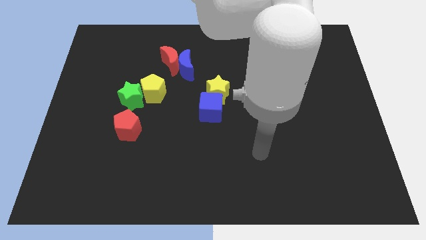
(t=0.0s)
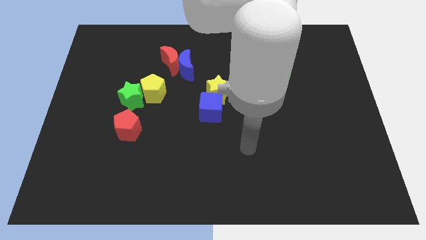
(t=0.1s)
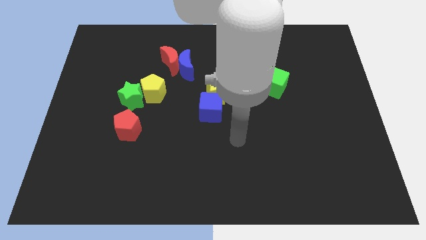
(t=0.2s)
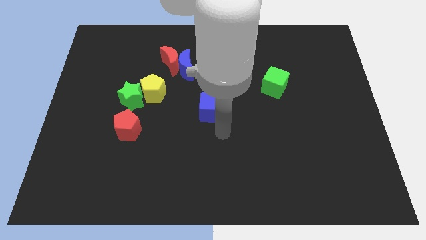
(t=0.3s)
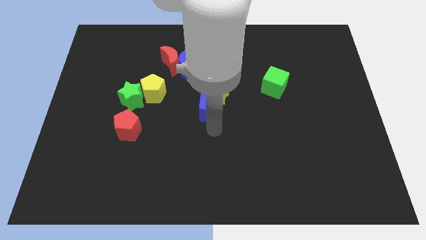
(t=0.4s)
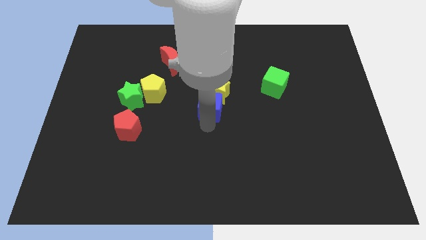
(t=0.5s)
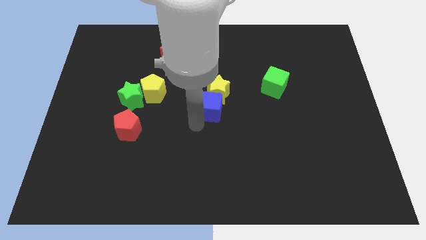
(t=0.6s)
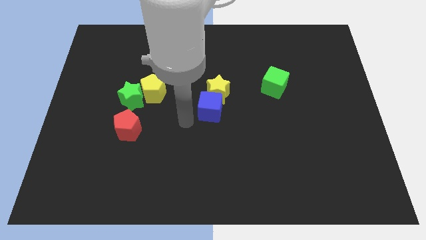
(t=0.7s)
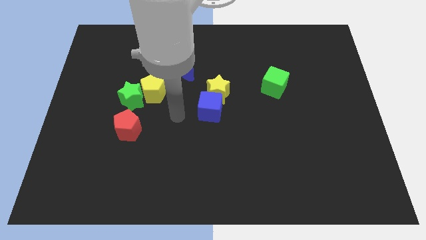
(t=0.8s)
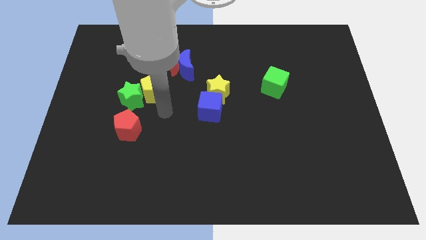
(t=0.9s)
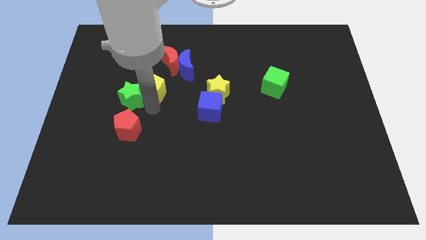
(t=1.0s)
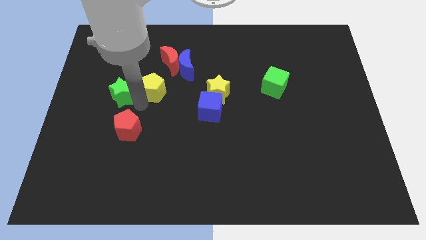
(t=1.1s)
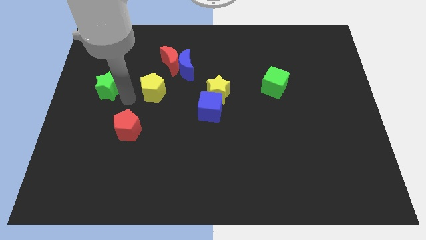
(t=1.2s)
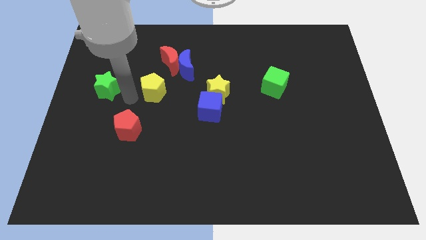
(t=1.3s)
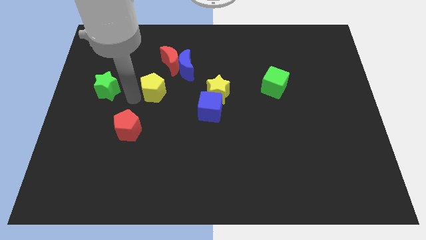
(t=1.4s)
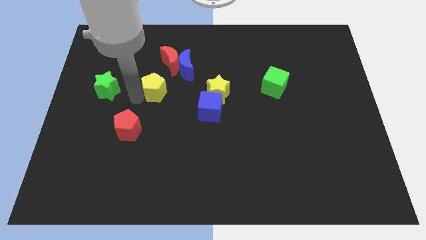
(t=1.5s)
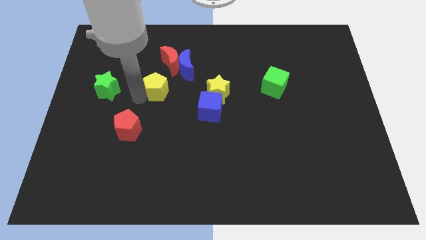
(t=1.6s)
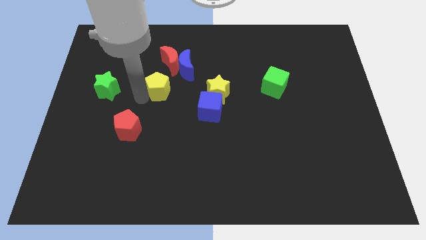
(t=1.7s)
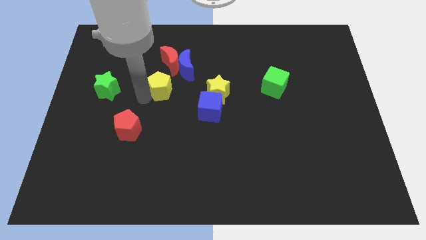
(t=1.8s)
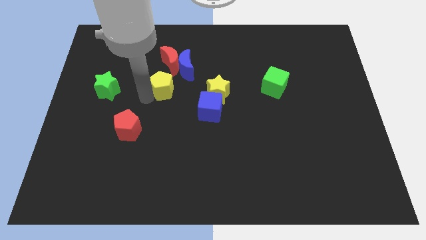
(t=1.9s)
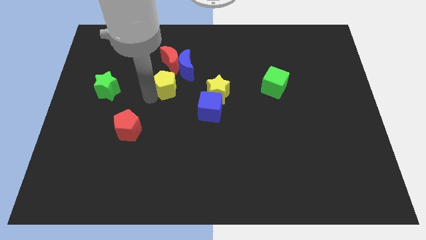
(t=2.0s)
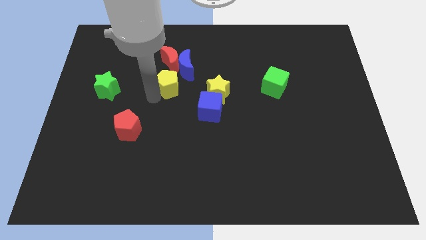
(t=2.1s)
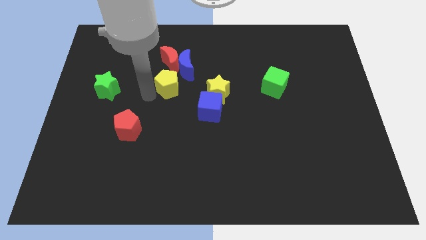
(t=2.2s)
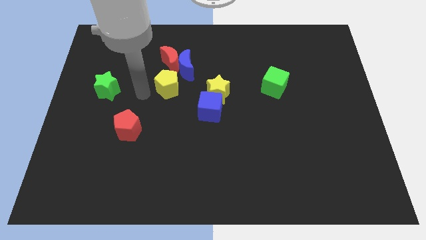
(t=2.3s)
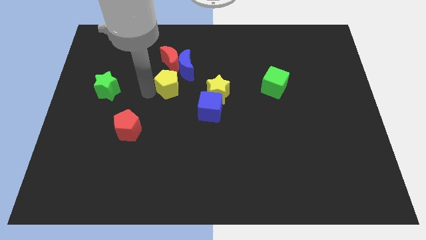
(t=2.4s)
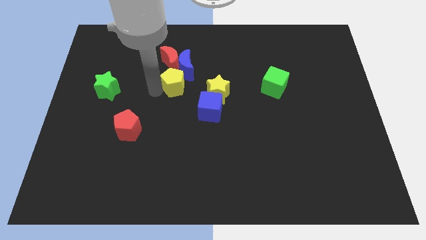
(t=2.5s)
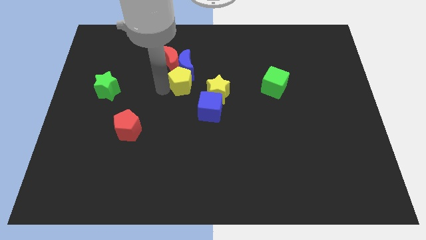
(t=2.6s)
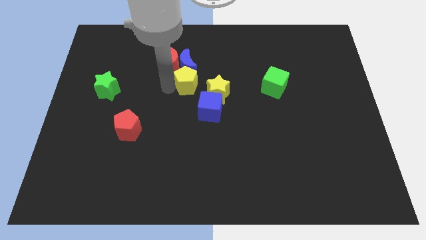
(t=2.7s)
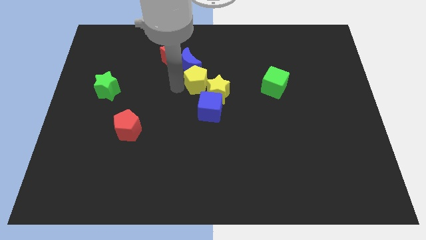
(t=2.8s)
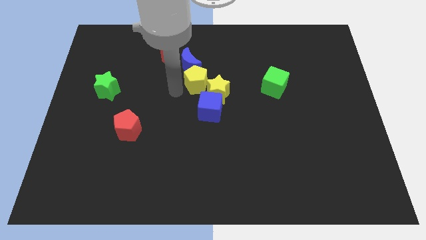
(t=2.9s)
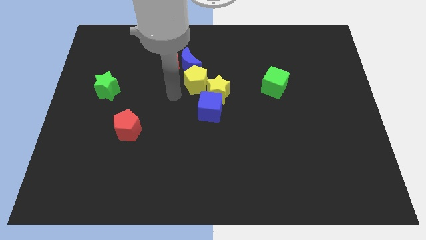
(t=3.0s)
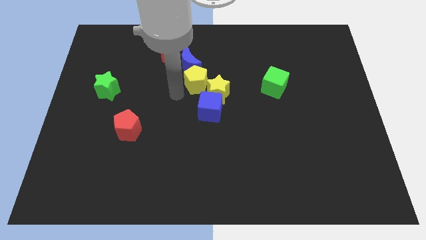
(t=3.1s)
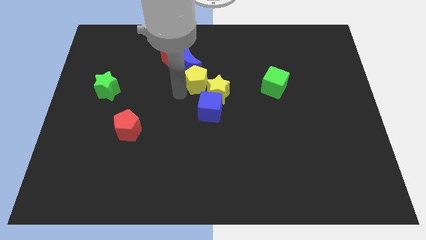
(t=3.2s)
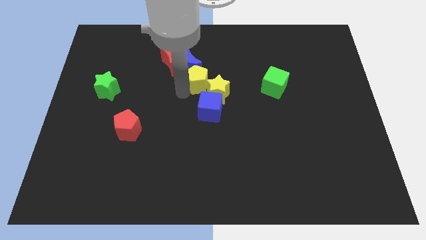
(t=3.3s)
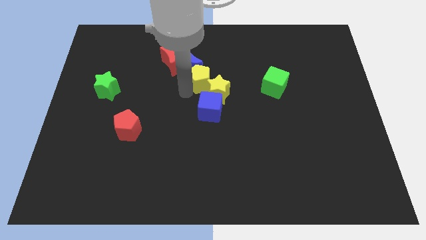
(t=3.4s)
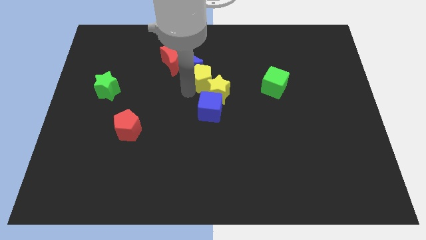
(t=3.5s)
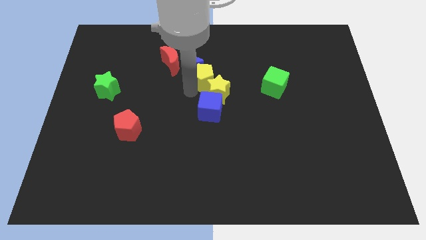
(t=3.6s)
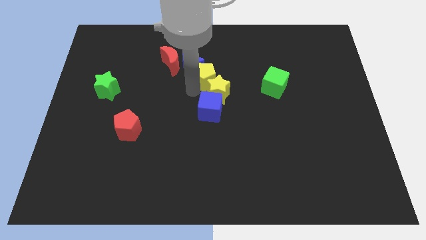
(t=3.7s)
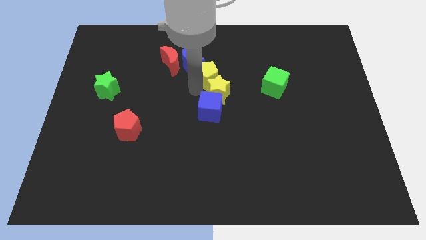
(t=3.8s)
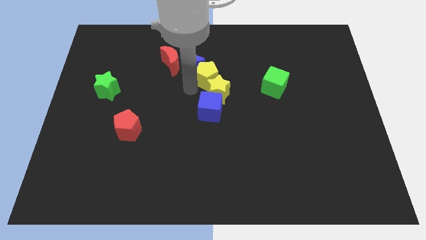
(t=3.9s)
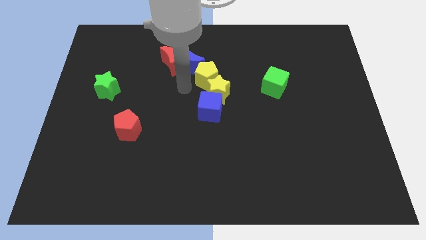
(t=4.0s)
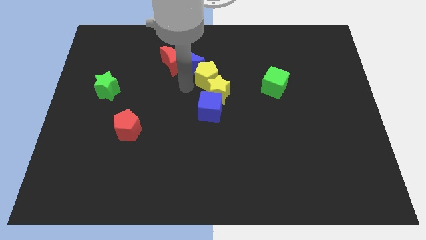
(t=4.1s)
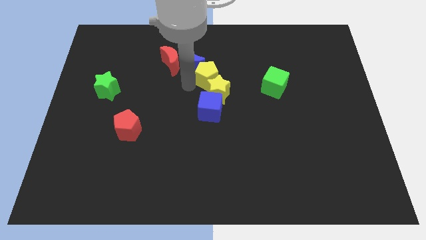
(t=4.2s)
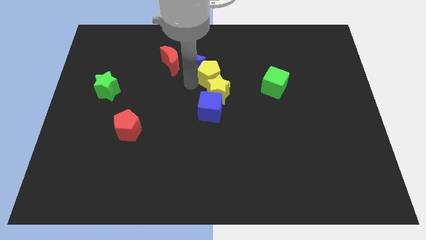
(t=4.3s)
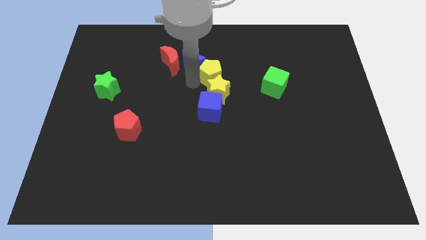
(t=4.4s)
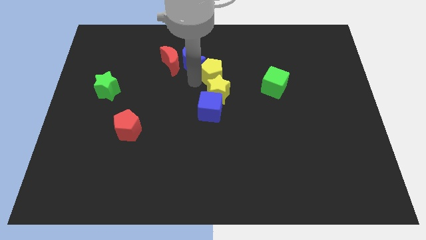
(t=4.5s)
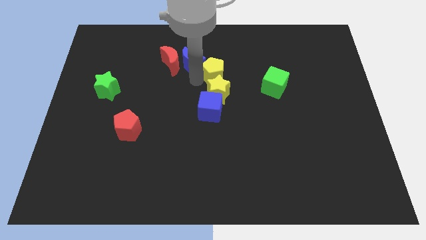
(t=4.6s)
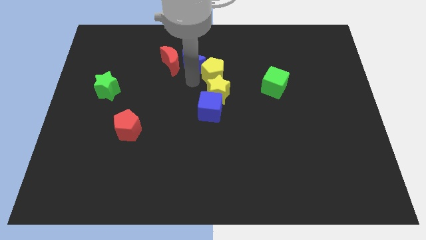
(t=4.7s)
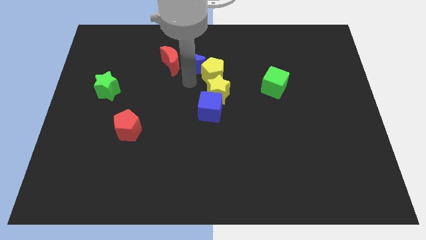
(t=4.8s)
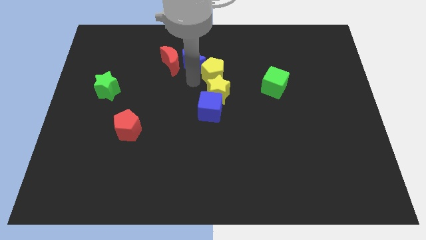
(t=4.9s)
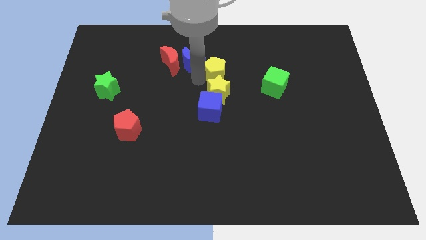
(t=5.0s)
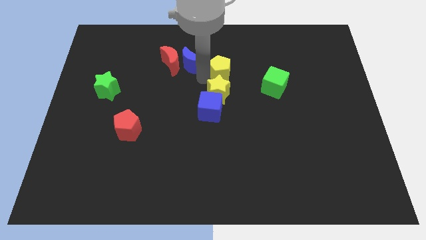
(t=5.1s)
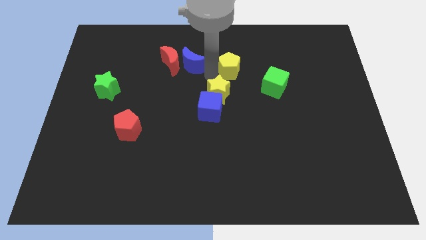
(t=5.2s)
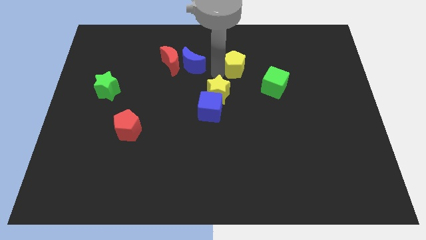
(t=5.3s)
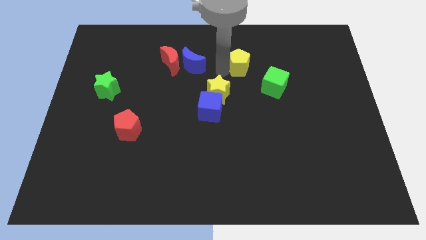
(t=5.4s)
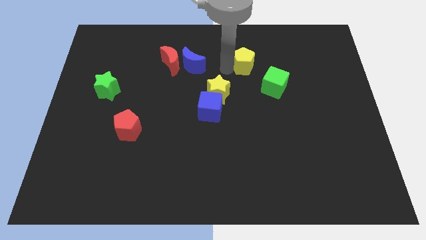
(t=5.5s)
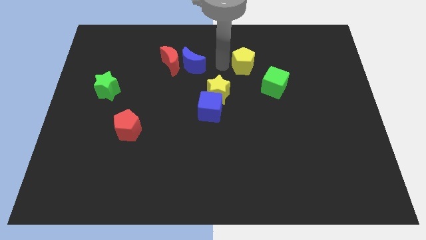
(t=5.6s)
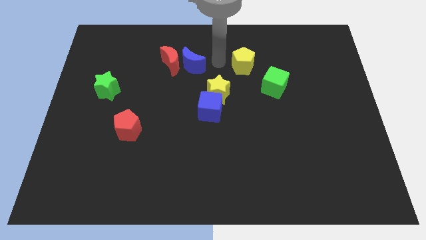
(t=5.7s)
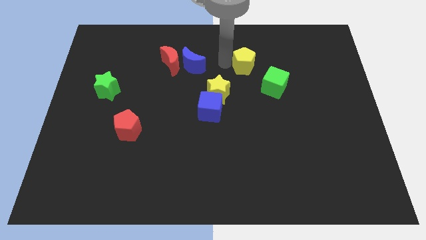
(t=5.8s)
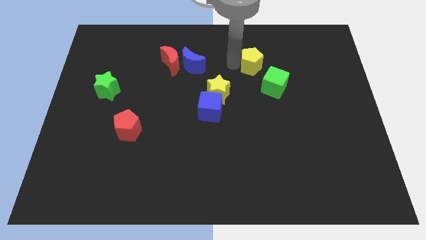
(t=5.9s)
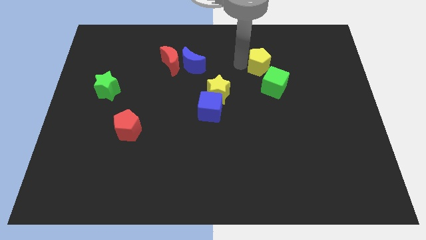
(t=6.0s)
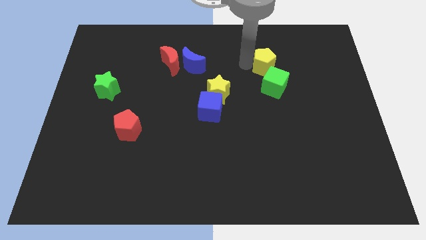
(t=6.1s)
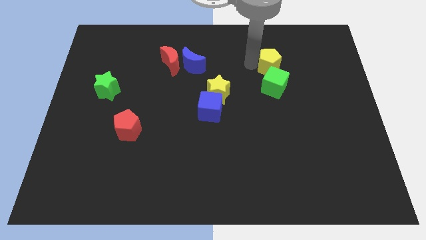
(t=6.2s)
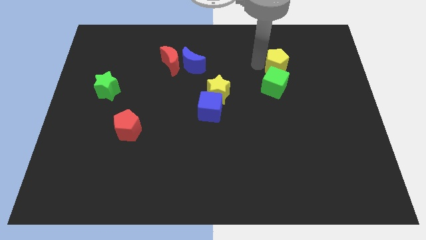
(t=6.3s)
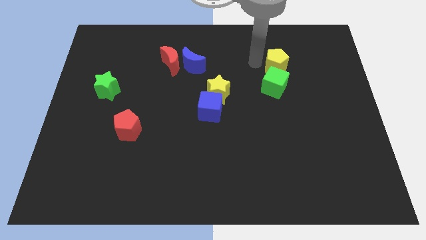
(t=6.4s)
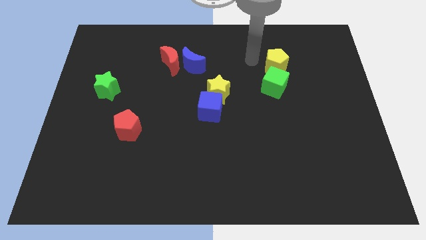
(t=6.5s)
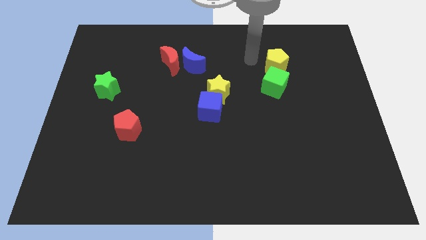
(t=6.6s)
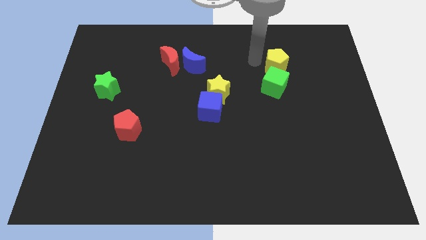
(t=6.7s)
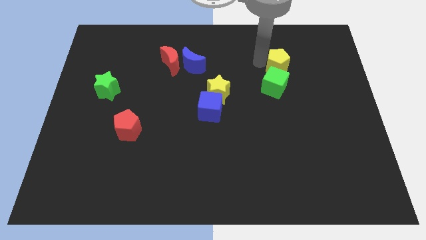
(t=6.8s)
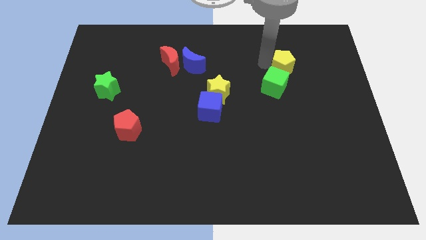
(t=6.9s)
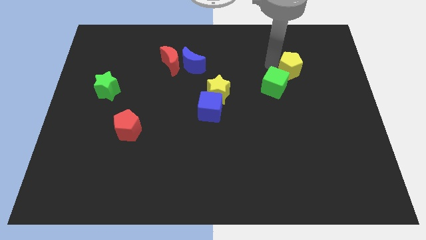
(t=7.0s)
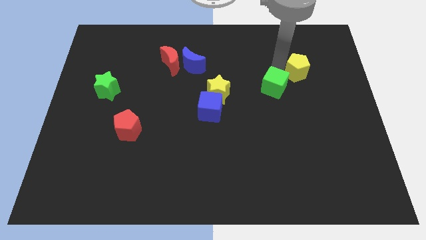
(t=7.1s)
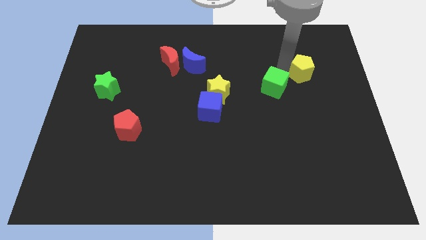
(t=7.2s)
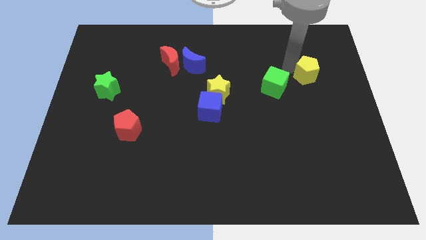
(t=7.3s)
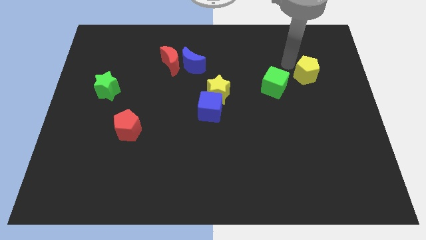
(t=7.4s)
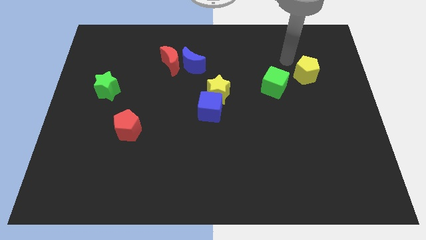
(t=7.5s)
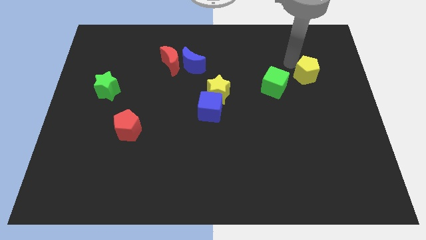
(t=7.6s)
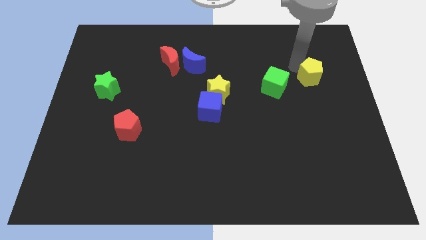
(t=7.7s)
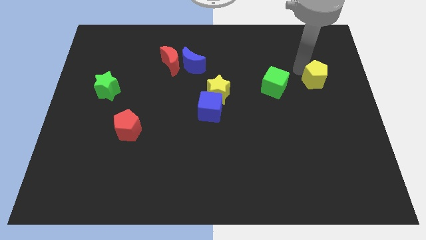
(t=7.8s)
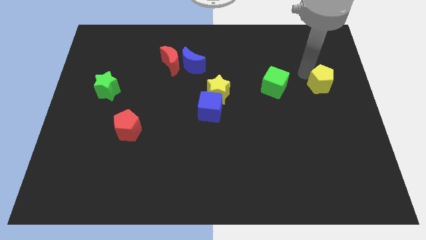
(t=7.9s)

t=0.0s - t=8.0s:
push the yellow pentagon to the right side of the board
